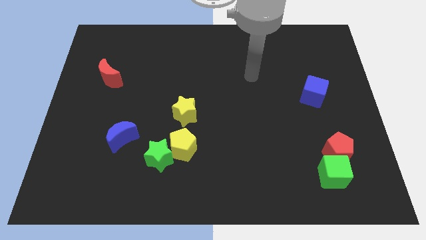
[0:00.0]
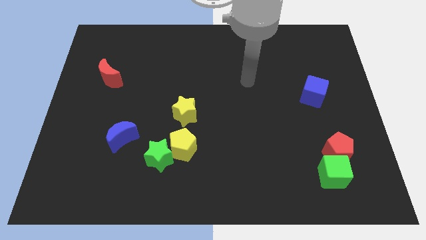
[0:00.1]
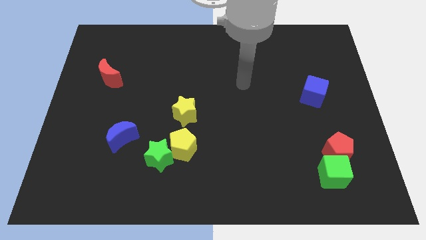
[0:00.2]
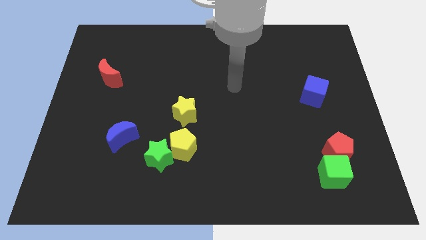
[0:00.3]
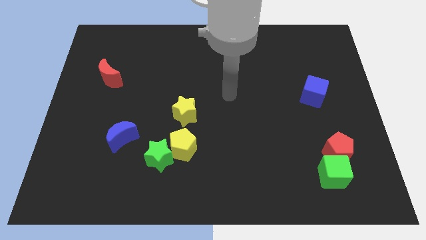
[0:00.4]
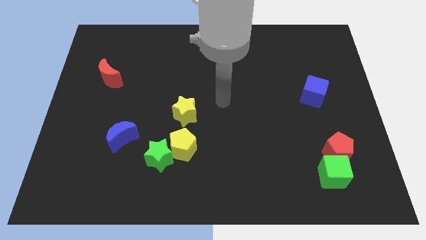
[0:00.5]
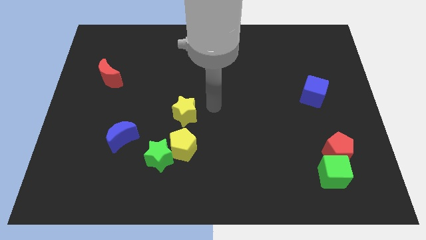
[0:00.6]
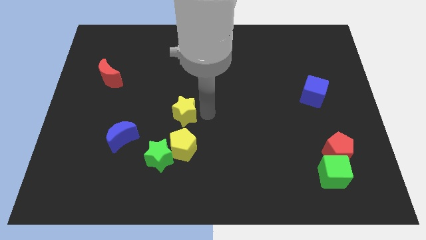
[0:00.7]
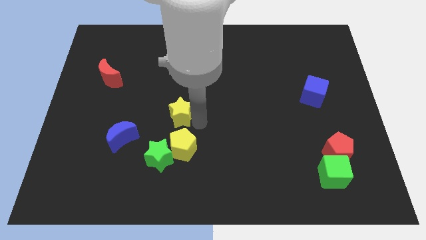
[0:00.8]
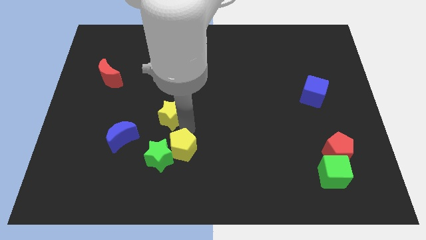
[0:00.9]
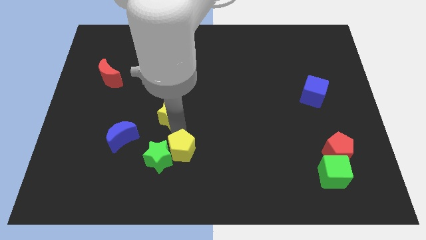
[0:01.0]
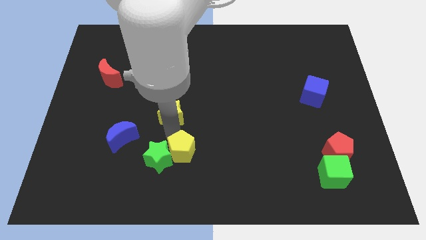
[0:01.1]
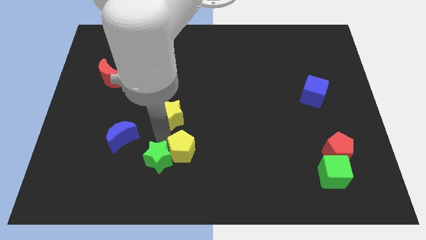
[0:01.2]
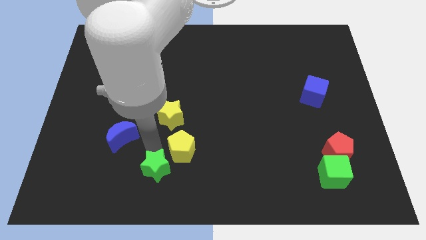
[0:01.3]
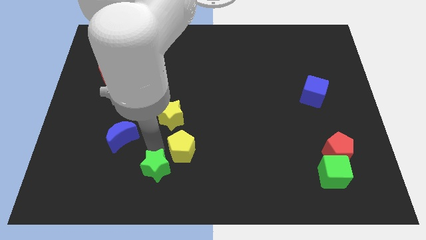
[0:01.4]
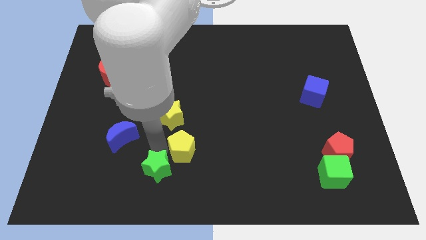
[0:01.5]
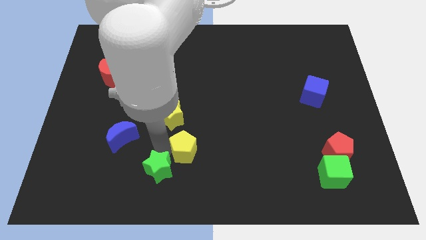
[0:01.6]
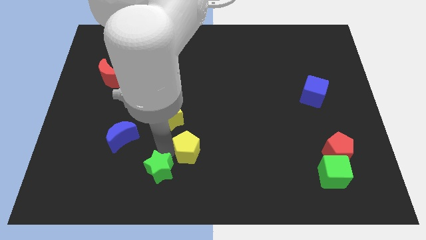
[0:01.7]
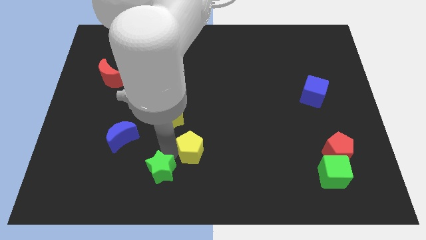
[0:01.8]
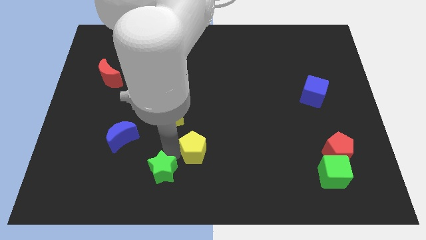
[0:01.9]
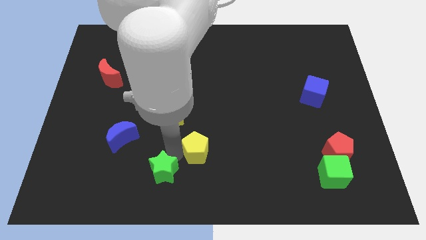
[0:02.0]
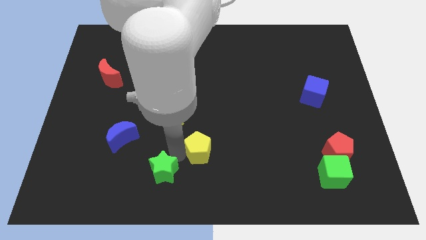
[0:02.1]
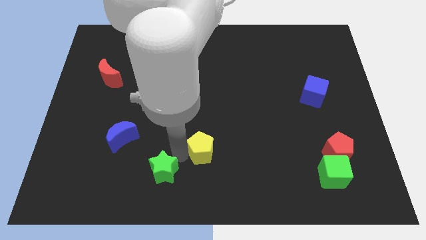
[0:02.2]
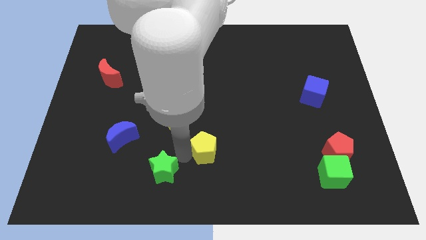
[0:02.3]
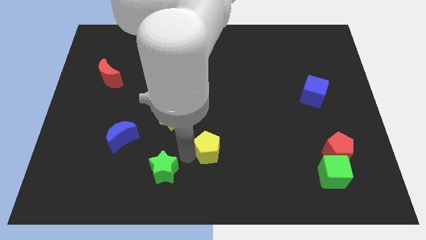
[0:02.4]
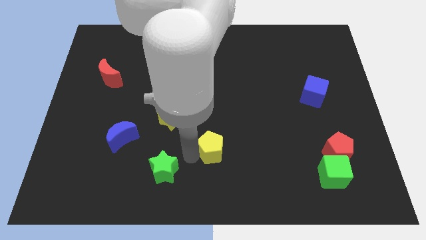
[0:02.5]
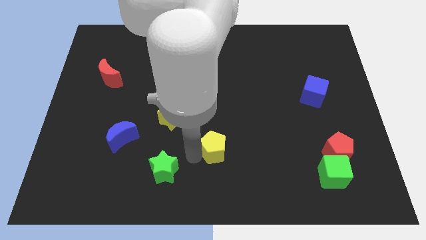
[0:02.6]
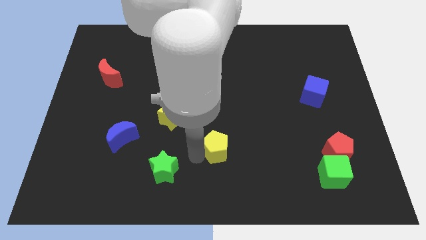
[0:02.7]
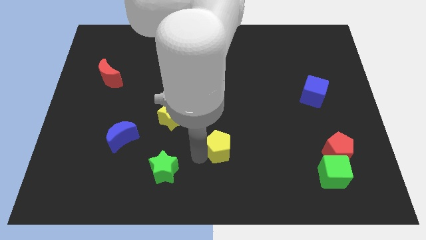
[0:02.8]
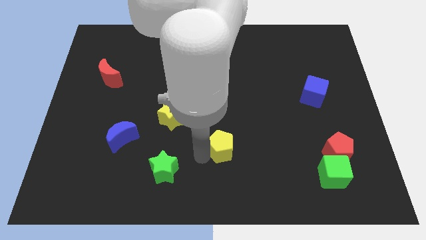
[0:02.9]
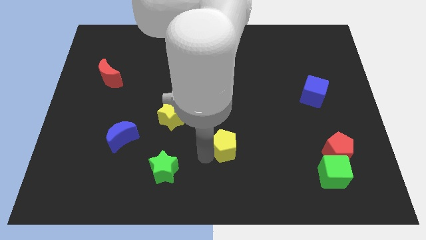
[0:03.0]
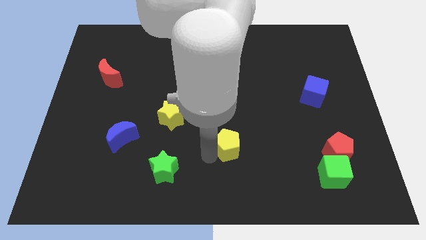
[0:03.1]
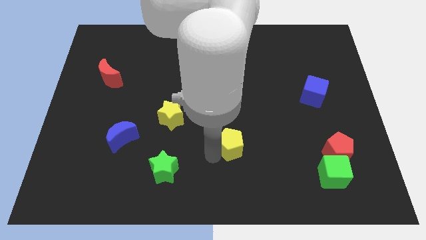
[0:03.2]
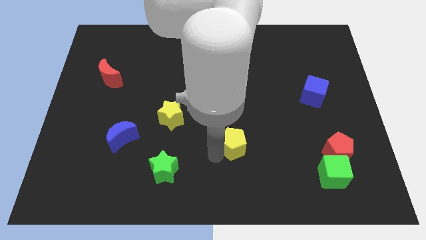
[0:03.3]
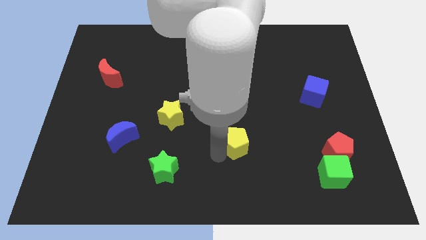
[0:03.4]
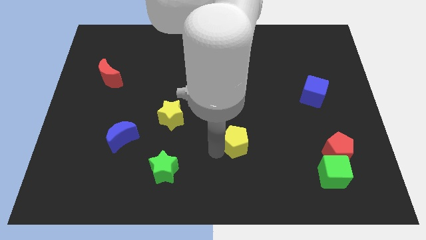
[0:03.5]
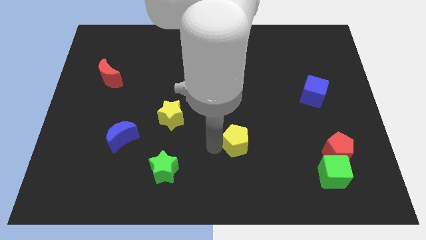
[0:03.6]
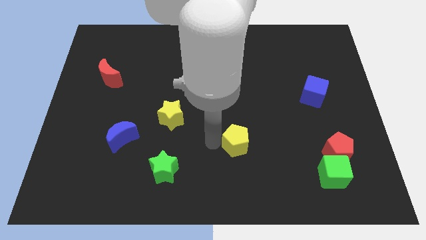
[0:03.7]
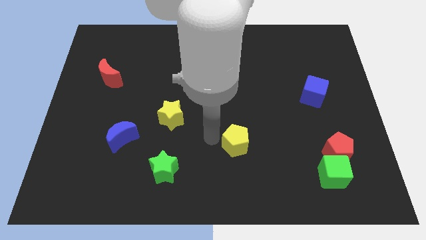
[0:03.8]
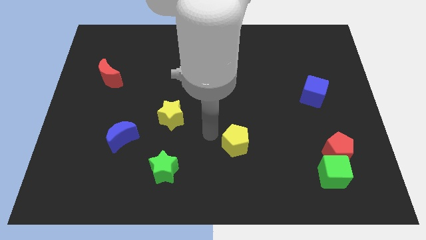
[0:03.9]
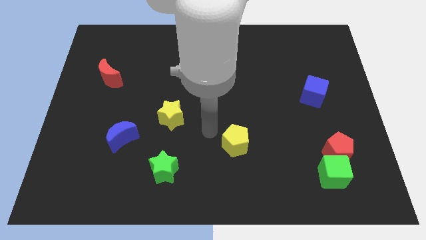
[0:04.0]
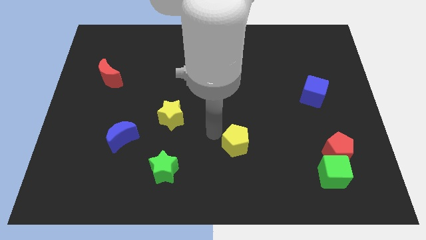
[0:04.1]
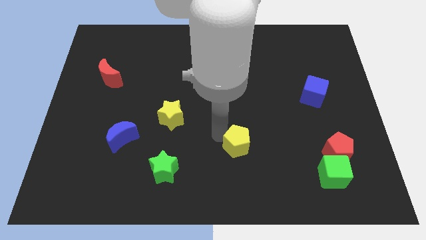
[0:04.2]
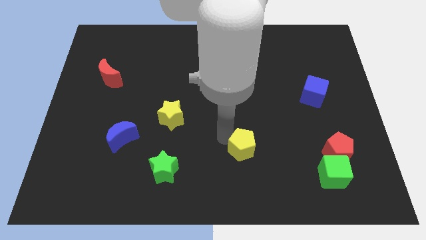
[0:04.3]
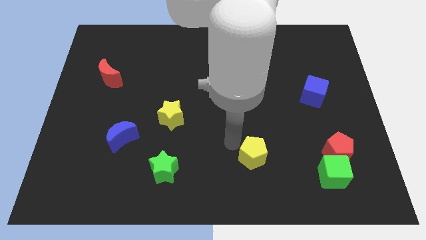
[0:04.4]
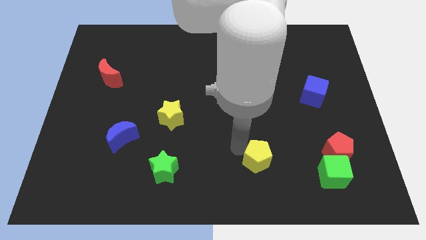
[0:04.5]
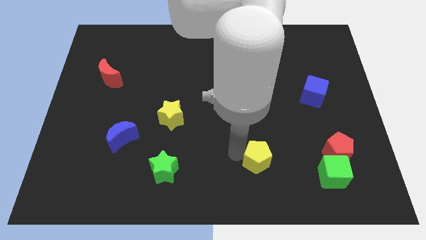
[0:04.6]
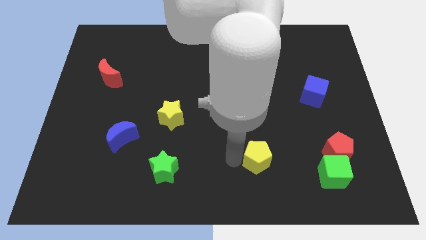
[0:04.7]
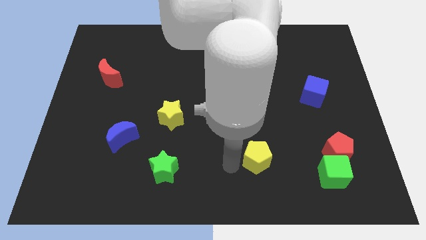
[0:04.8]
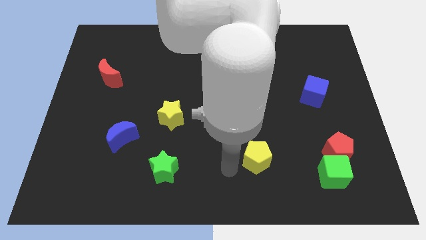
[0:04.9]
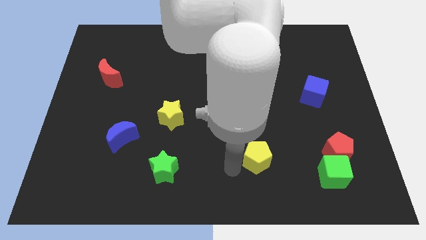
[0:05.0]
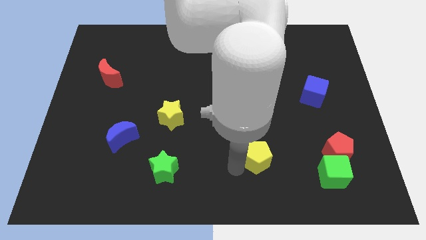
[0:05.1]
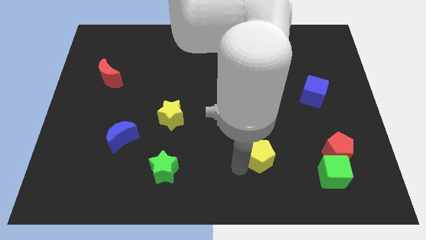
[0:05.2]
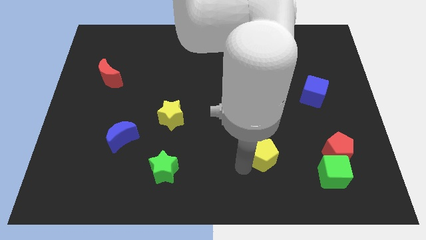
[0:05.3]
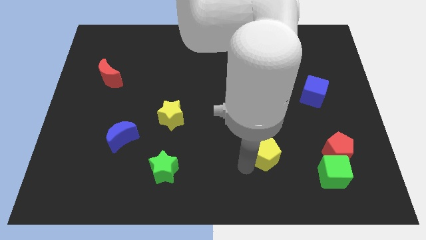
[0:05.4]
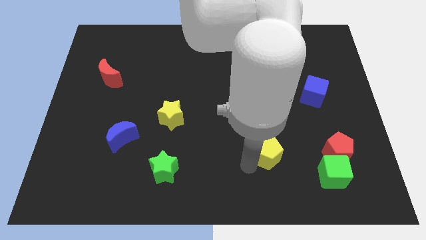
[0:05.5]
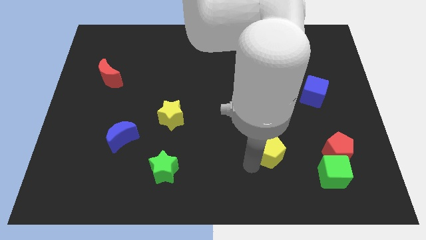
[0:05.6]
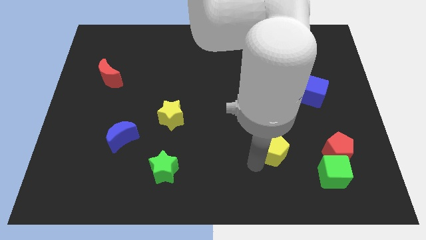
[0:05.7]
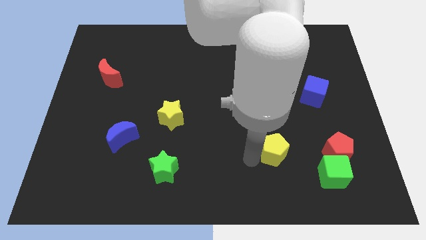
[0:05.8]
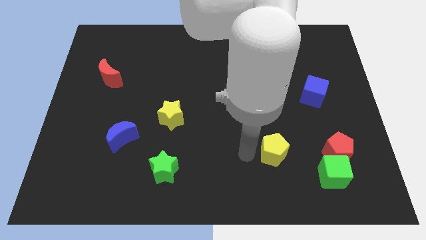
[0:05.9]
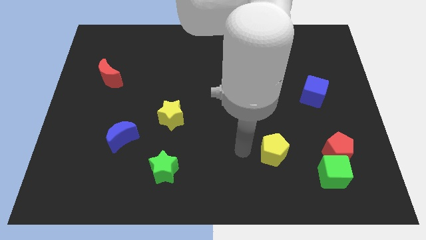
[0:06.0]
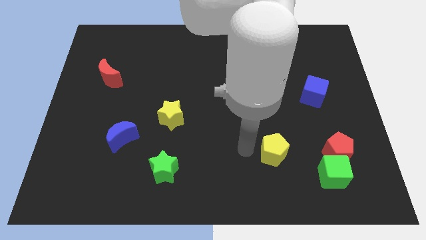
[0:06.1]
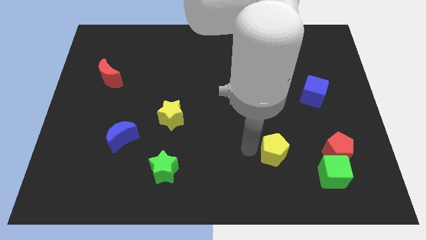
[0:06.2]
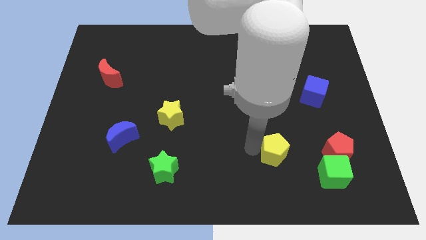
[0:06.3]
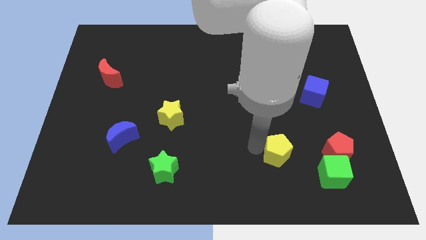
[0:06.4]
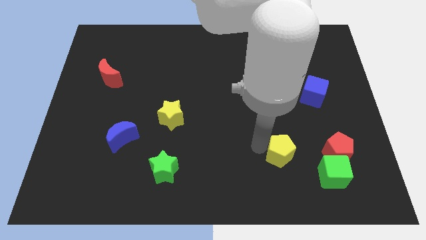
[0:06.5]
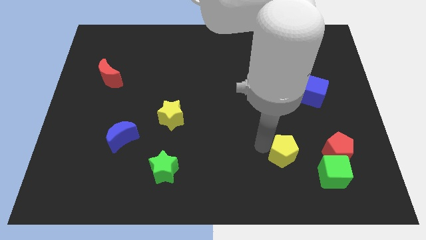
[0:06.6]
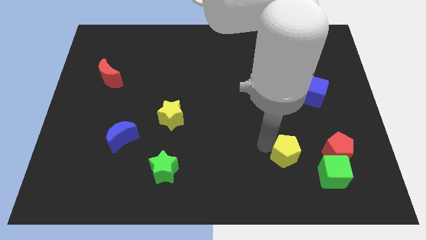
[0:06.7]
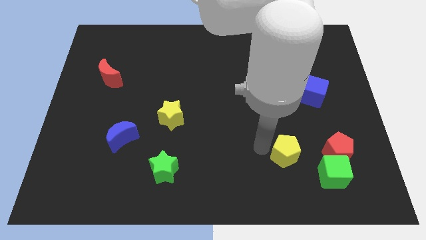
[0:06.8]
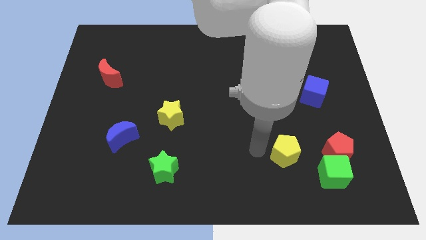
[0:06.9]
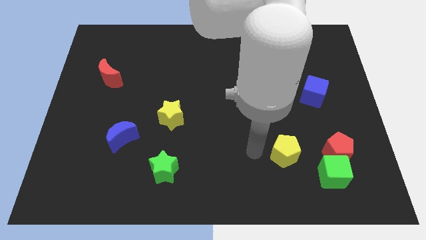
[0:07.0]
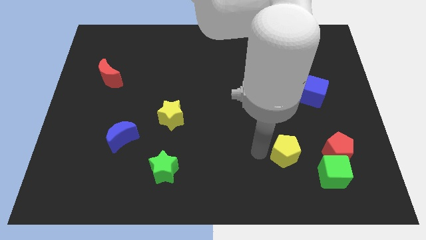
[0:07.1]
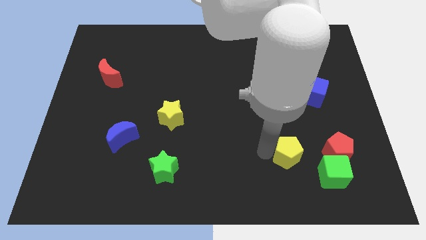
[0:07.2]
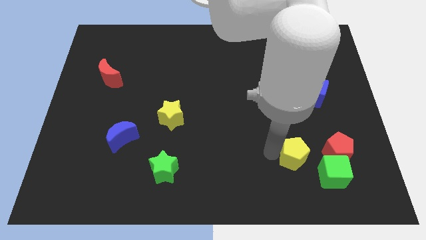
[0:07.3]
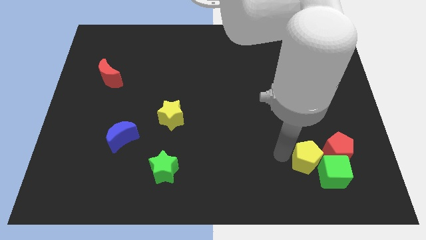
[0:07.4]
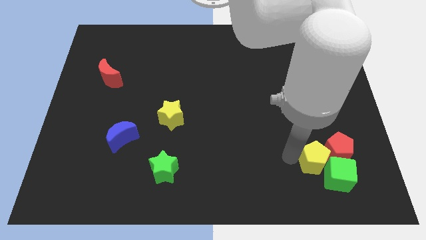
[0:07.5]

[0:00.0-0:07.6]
put the yellow pentagon to the red pentagon
